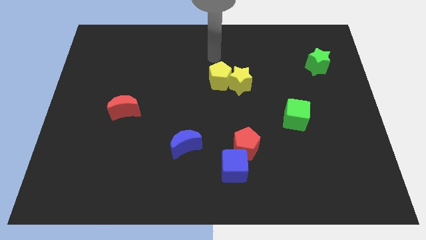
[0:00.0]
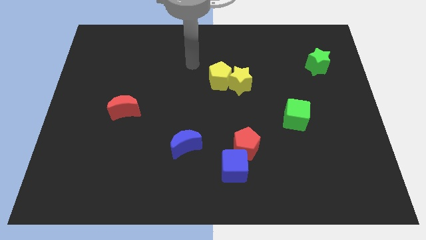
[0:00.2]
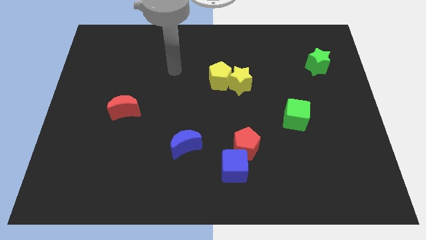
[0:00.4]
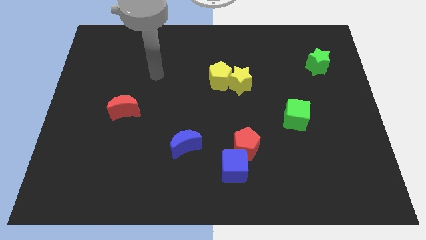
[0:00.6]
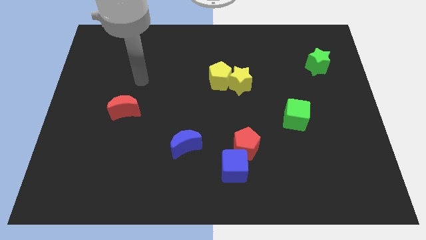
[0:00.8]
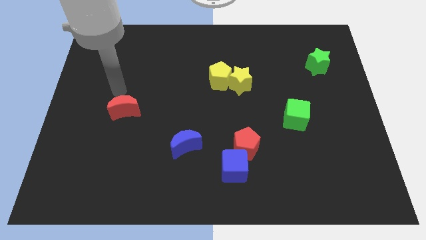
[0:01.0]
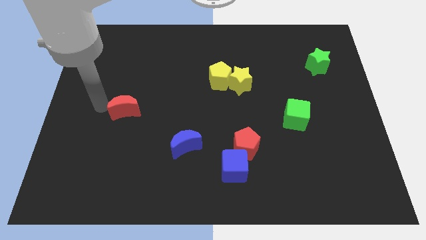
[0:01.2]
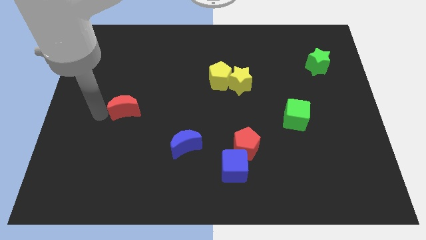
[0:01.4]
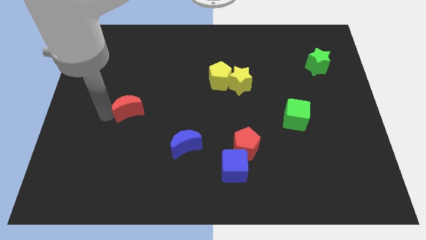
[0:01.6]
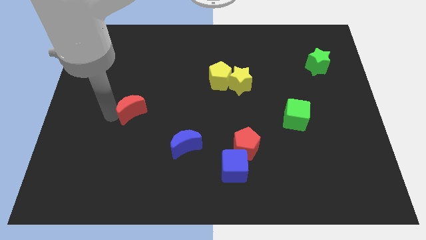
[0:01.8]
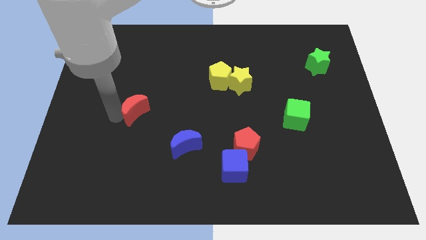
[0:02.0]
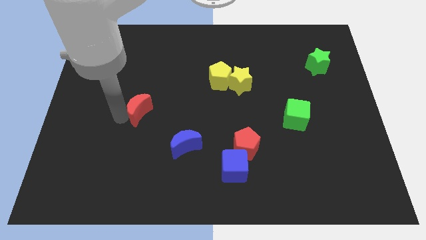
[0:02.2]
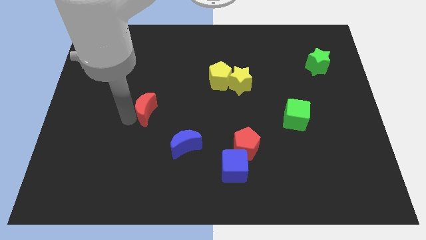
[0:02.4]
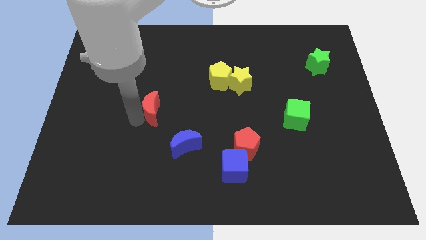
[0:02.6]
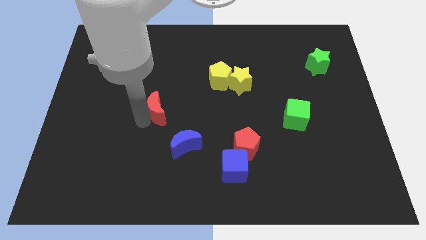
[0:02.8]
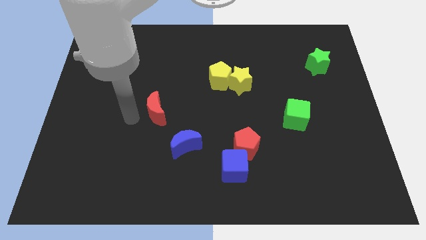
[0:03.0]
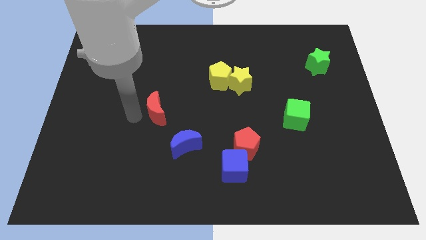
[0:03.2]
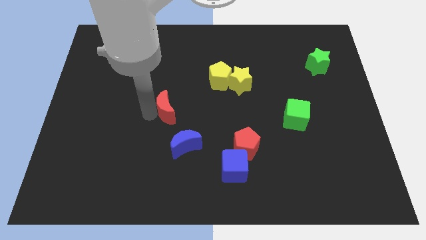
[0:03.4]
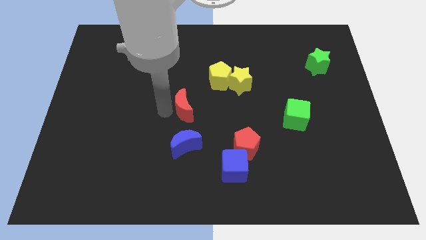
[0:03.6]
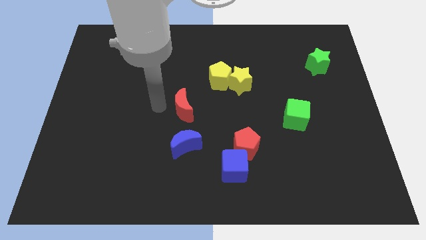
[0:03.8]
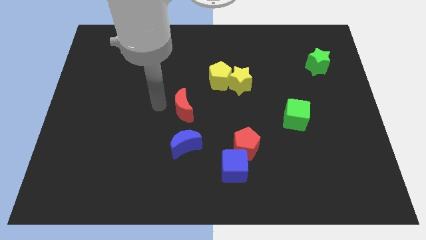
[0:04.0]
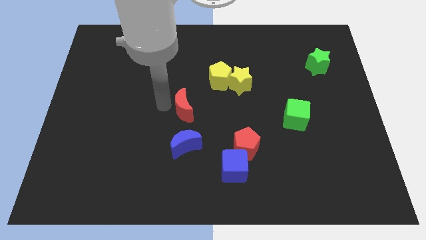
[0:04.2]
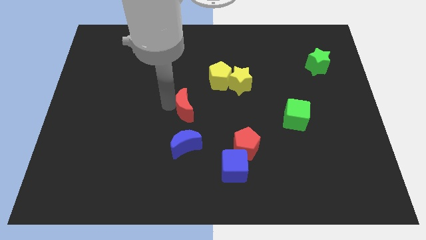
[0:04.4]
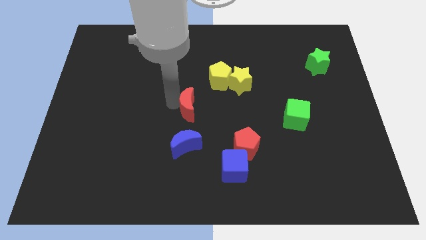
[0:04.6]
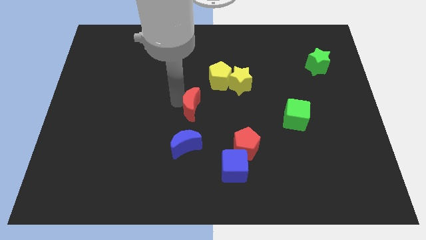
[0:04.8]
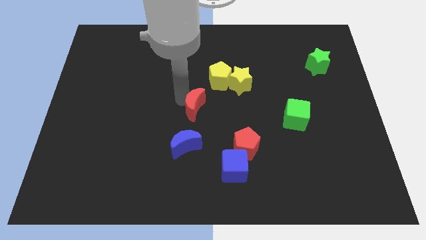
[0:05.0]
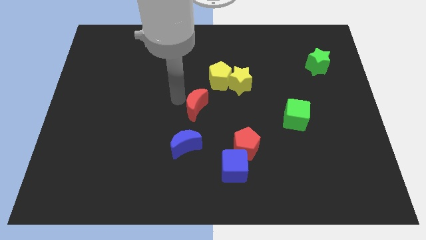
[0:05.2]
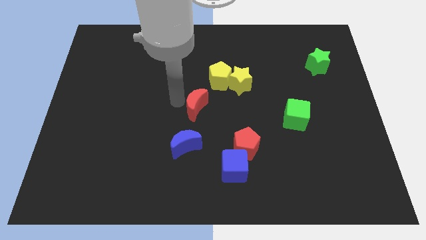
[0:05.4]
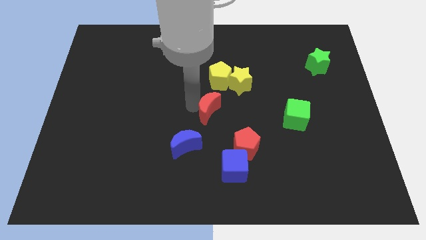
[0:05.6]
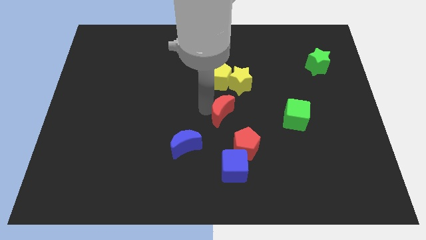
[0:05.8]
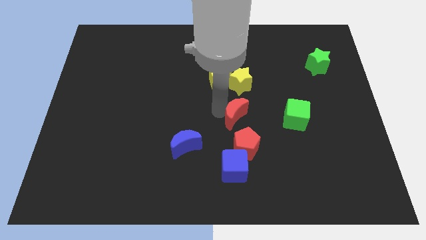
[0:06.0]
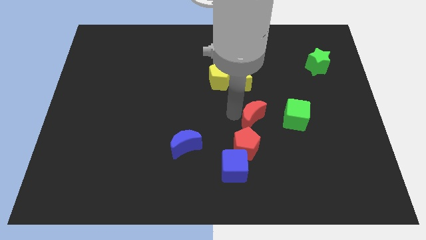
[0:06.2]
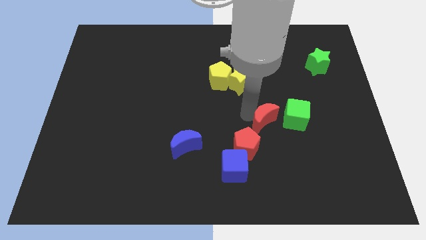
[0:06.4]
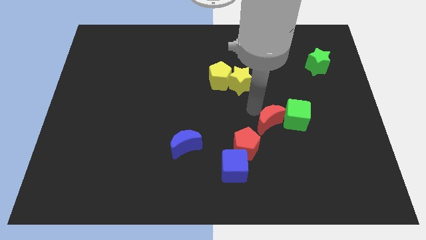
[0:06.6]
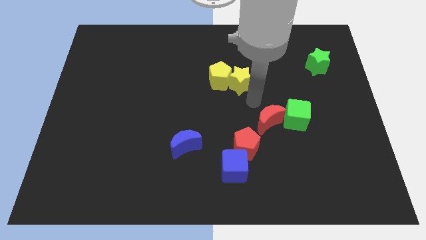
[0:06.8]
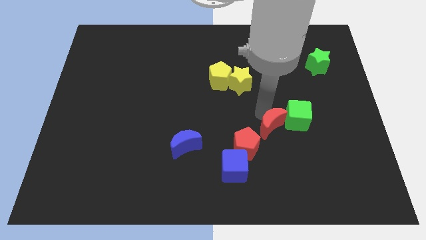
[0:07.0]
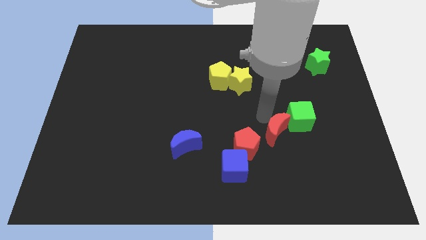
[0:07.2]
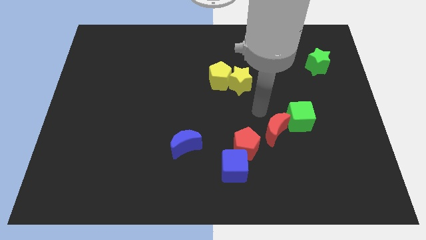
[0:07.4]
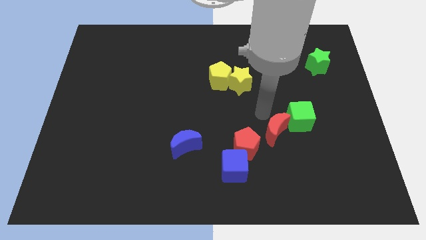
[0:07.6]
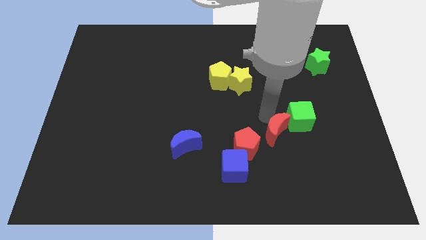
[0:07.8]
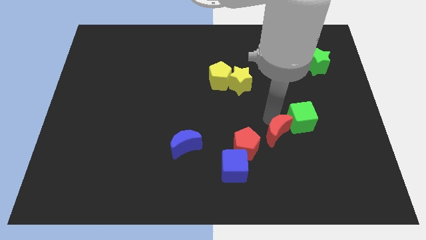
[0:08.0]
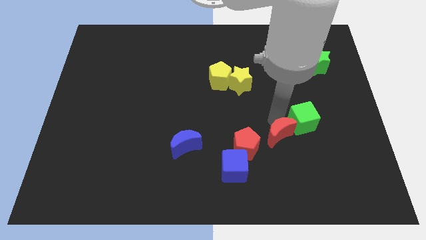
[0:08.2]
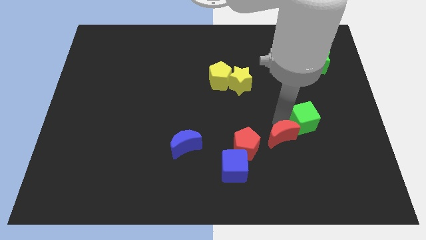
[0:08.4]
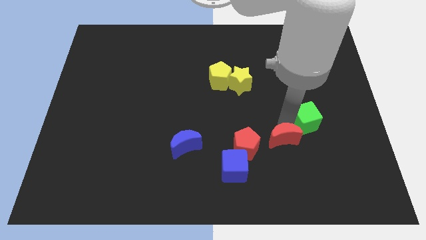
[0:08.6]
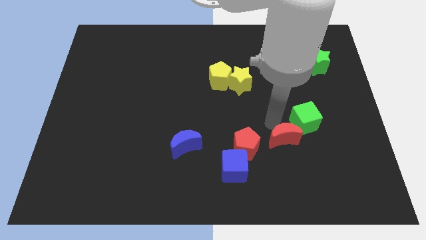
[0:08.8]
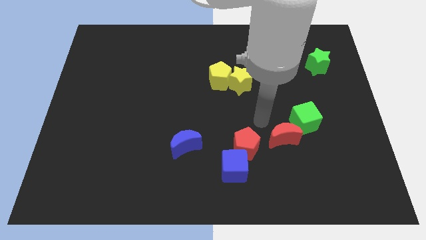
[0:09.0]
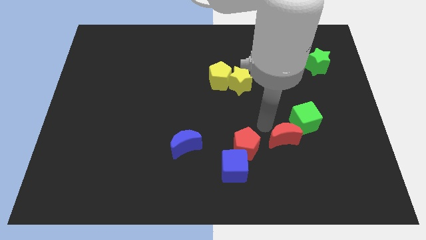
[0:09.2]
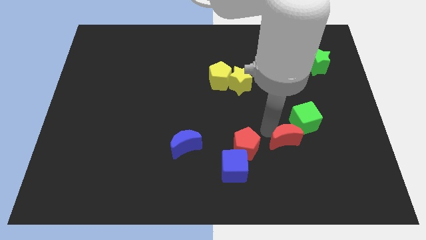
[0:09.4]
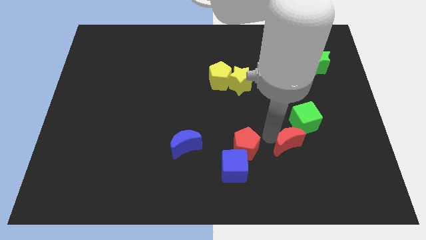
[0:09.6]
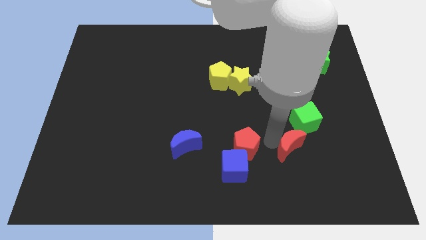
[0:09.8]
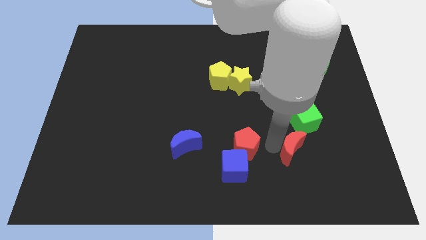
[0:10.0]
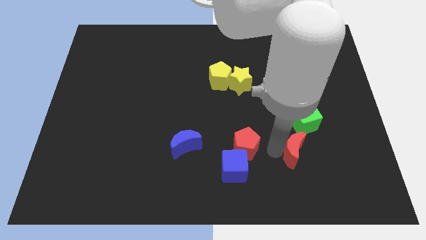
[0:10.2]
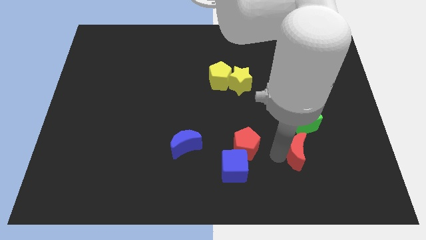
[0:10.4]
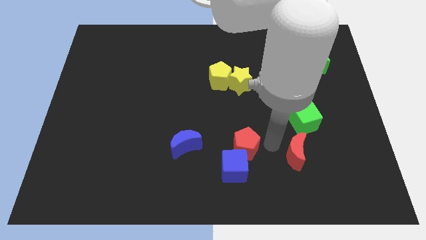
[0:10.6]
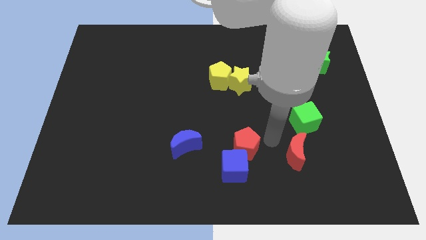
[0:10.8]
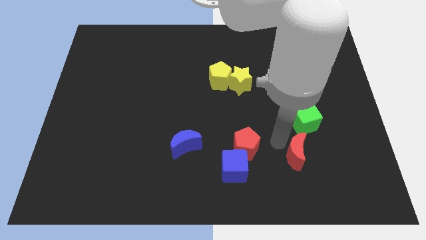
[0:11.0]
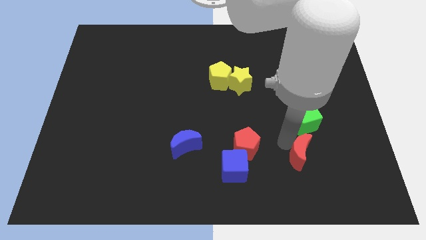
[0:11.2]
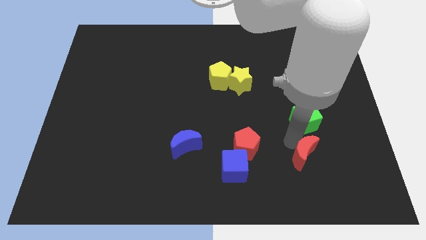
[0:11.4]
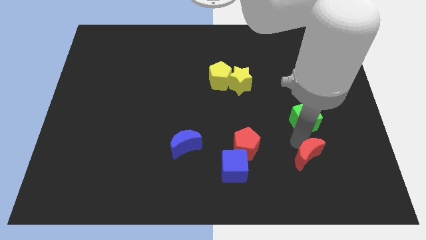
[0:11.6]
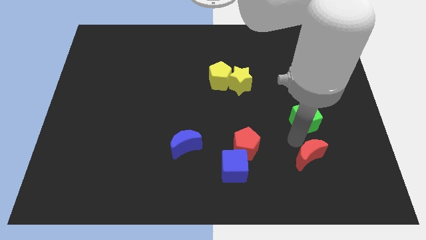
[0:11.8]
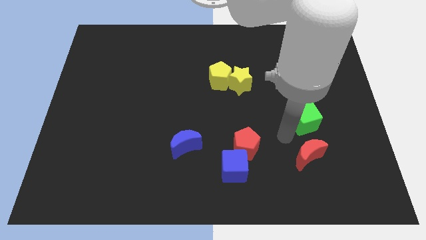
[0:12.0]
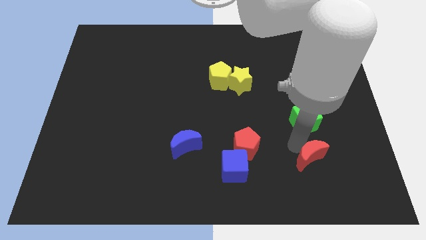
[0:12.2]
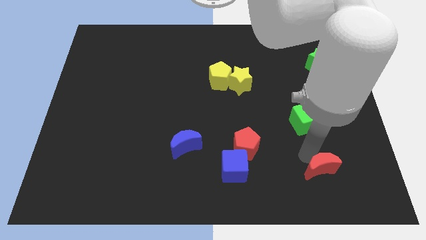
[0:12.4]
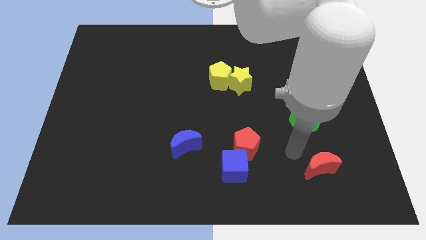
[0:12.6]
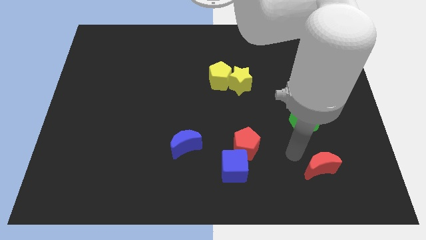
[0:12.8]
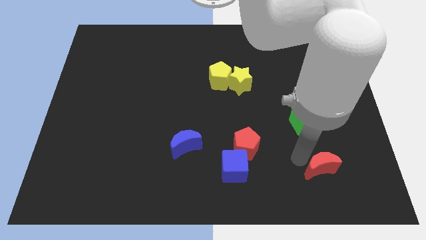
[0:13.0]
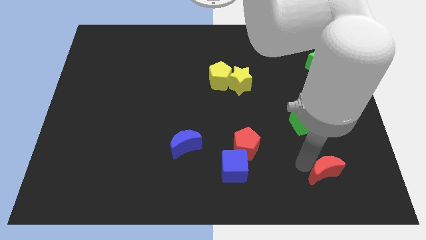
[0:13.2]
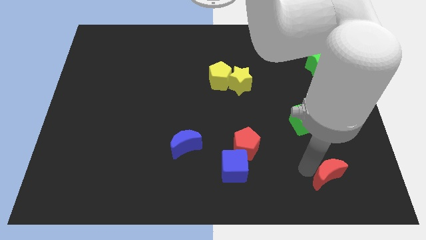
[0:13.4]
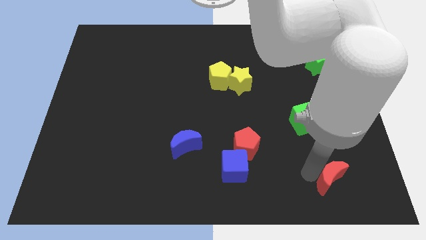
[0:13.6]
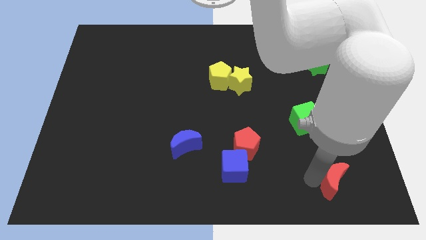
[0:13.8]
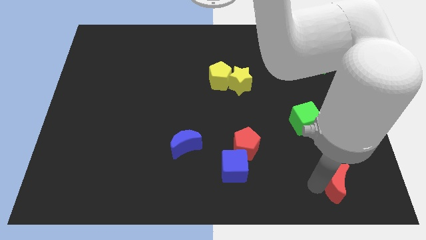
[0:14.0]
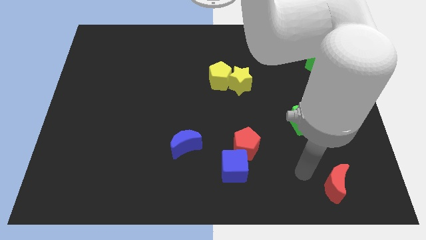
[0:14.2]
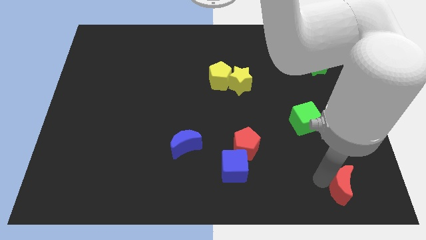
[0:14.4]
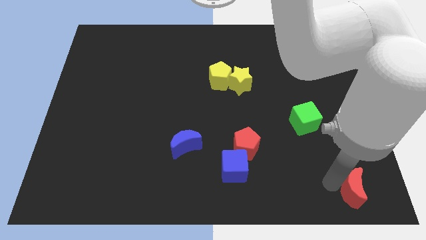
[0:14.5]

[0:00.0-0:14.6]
slide the red moon to the lower right corner
